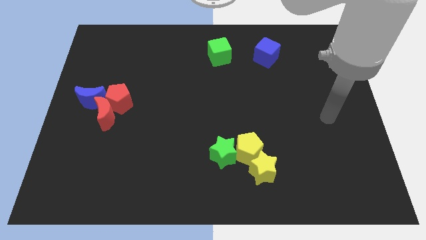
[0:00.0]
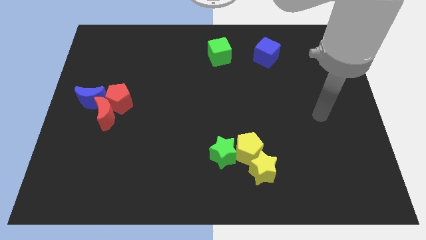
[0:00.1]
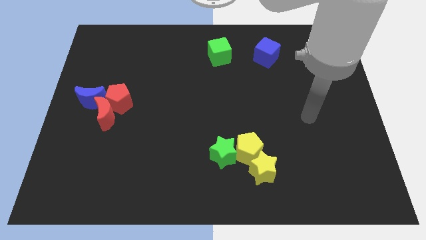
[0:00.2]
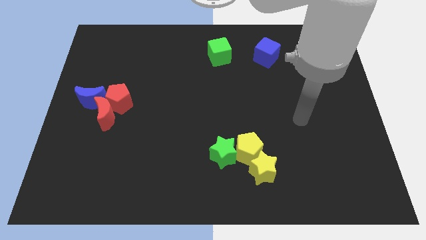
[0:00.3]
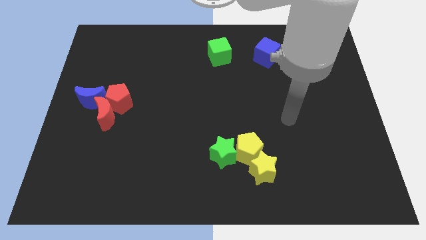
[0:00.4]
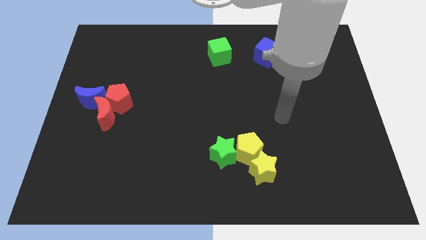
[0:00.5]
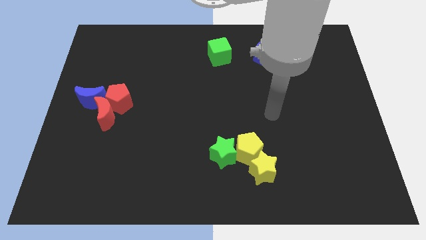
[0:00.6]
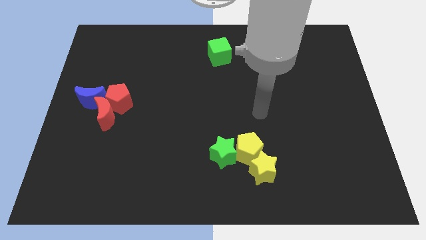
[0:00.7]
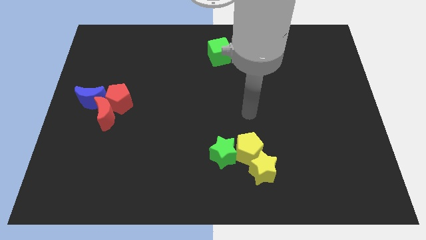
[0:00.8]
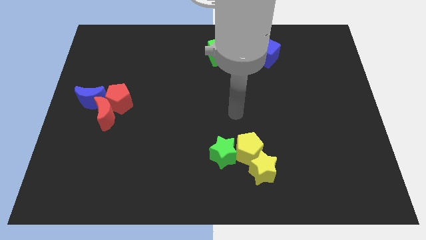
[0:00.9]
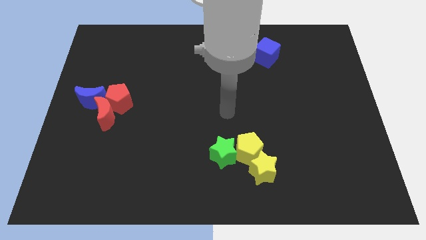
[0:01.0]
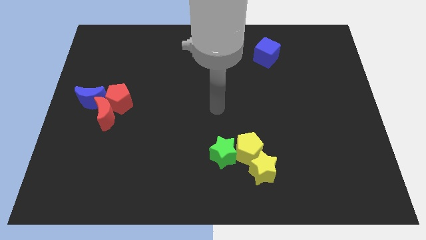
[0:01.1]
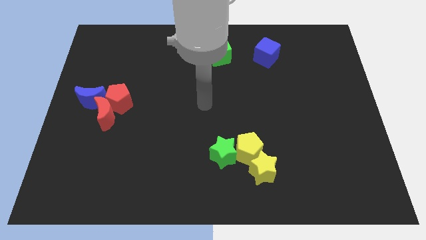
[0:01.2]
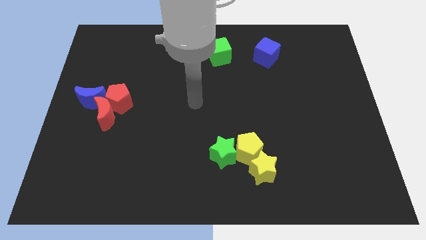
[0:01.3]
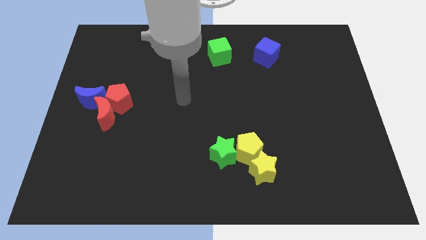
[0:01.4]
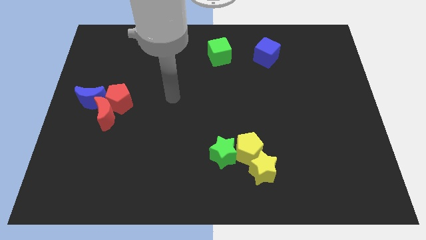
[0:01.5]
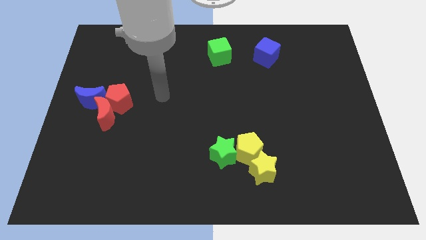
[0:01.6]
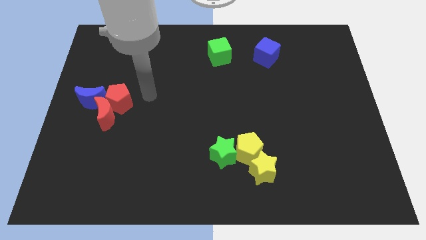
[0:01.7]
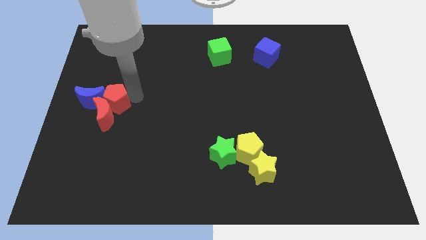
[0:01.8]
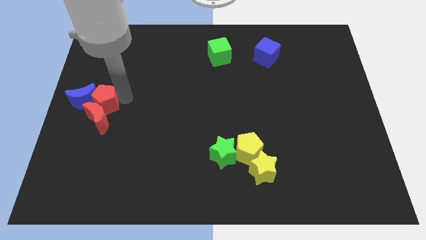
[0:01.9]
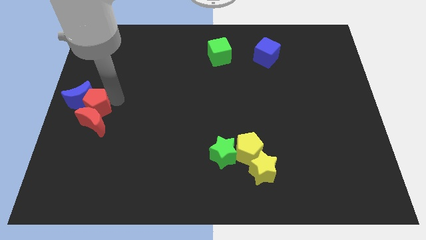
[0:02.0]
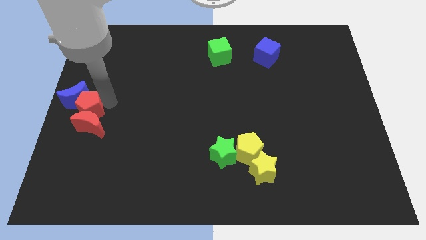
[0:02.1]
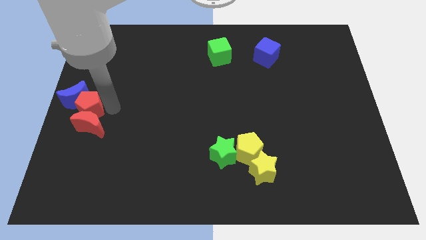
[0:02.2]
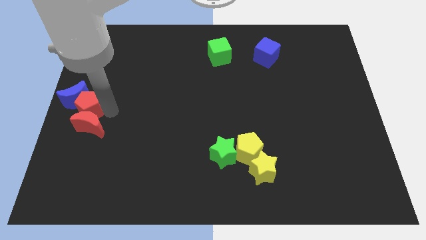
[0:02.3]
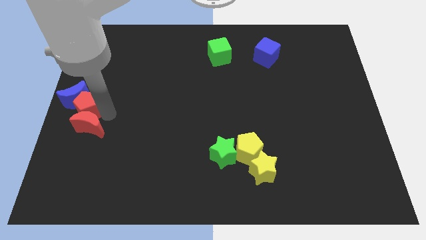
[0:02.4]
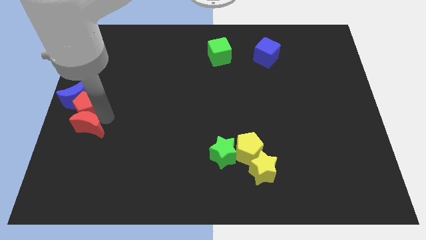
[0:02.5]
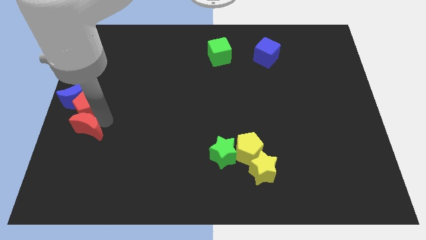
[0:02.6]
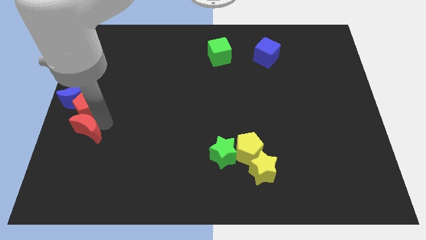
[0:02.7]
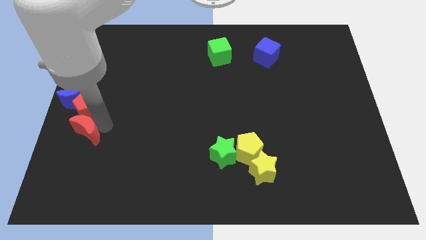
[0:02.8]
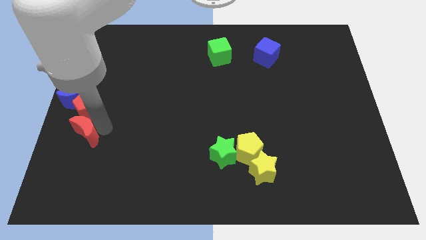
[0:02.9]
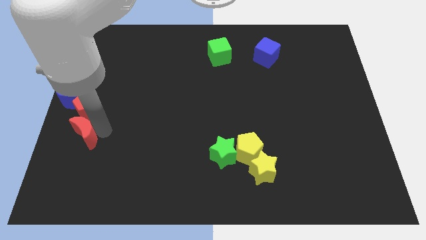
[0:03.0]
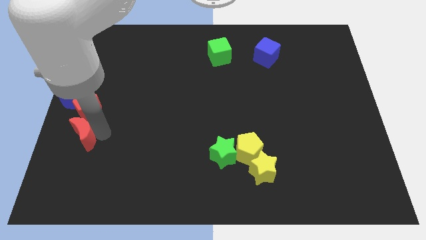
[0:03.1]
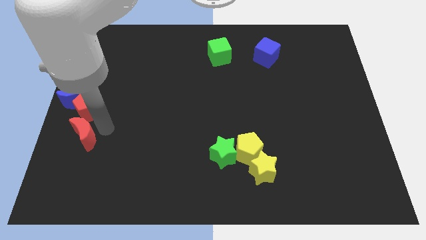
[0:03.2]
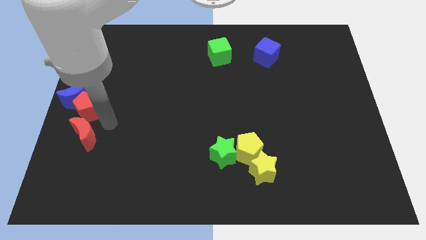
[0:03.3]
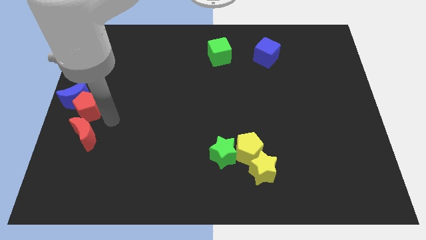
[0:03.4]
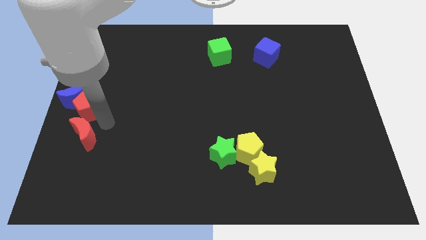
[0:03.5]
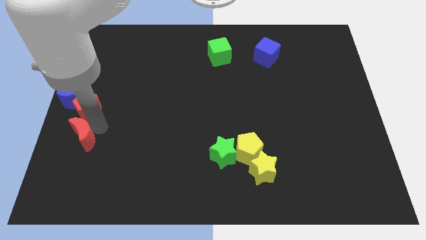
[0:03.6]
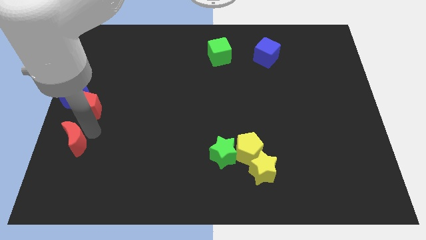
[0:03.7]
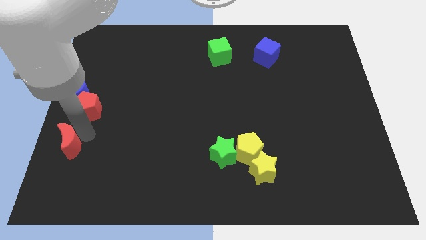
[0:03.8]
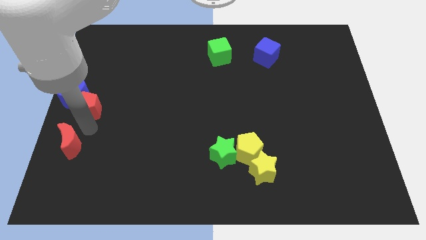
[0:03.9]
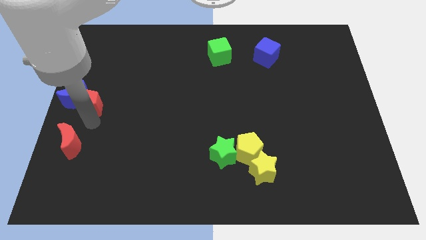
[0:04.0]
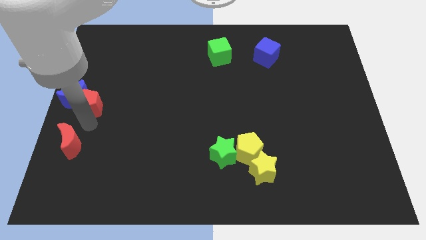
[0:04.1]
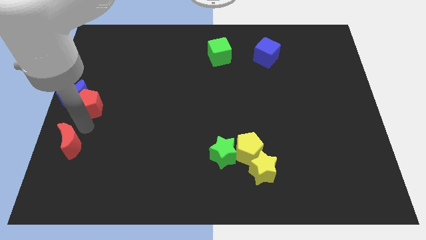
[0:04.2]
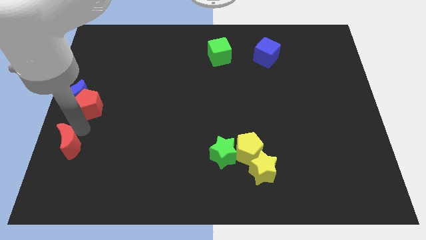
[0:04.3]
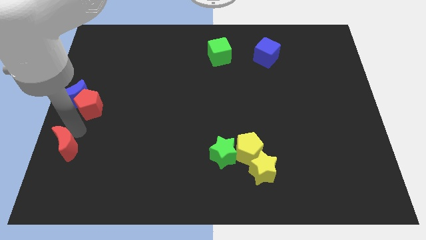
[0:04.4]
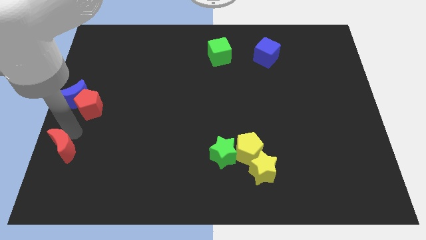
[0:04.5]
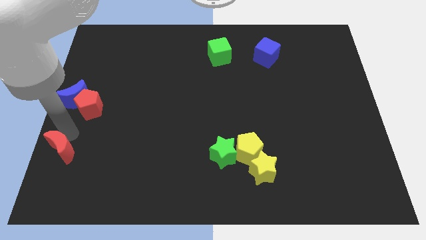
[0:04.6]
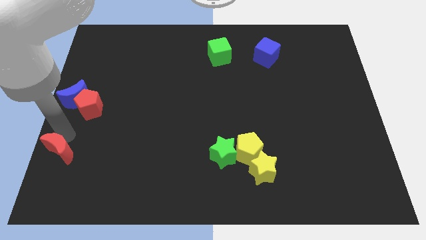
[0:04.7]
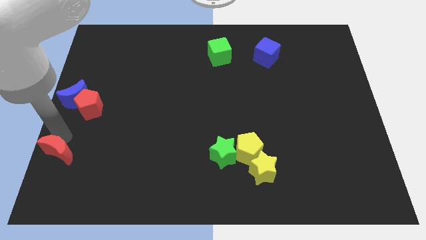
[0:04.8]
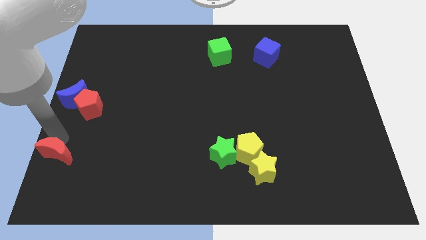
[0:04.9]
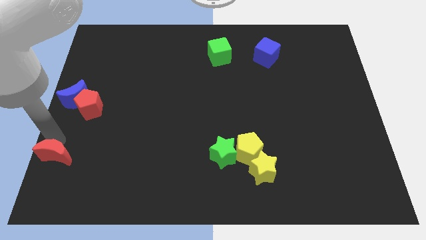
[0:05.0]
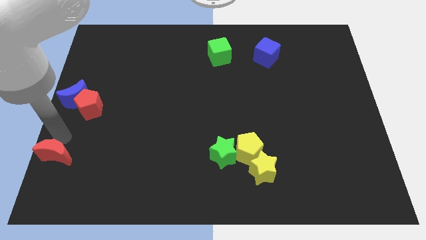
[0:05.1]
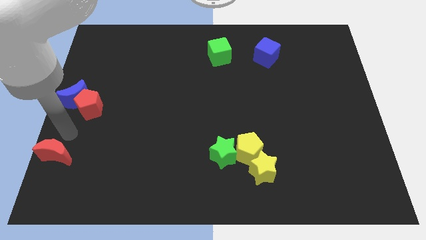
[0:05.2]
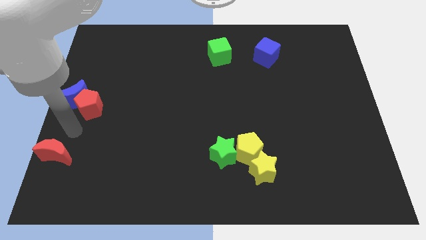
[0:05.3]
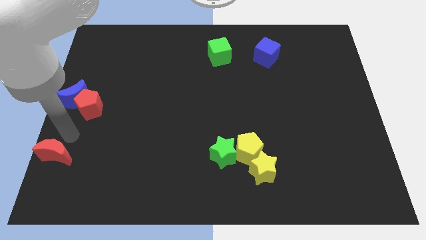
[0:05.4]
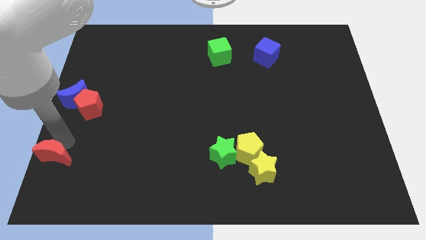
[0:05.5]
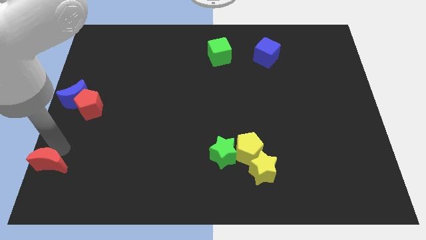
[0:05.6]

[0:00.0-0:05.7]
push the red moon to the lower left corner

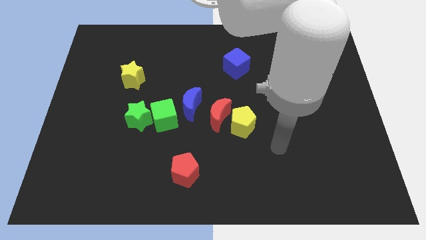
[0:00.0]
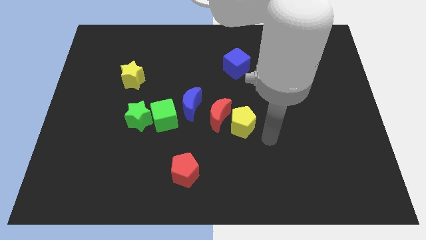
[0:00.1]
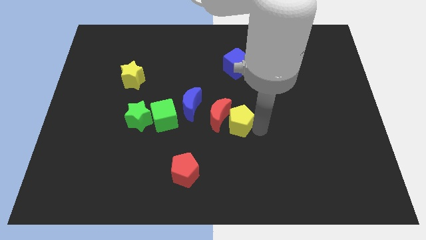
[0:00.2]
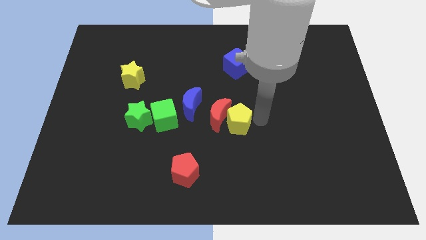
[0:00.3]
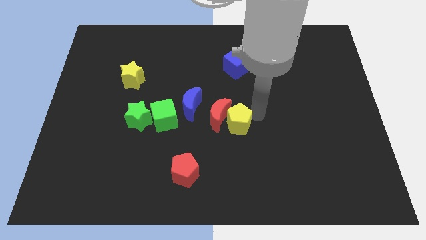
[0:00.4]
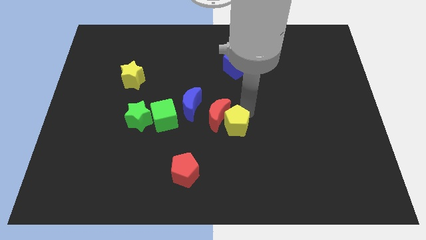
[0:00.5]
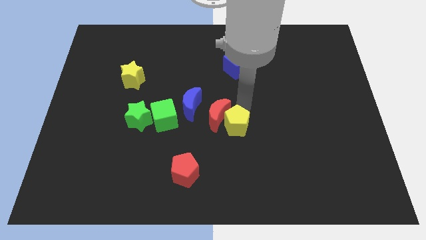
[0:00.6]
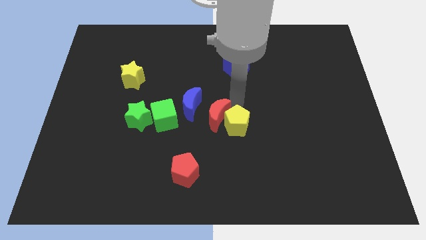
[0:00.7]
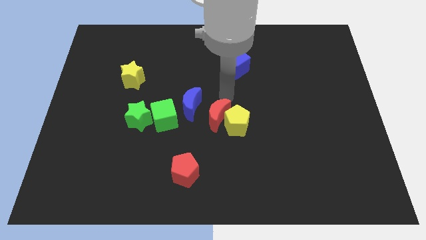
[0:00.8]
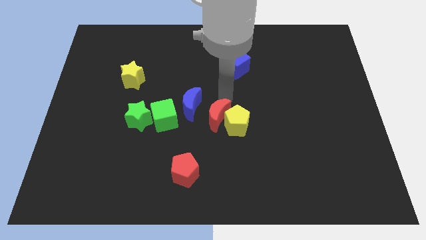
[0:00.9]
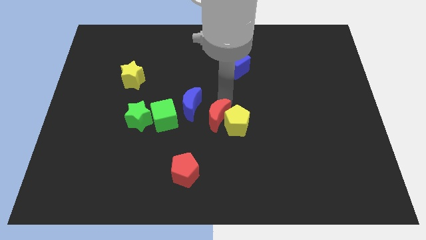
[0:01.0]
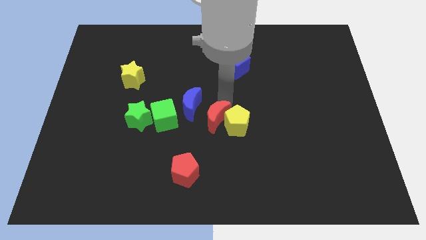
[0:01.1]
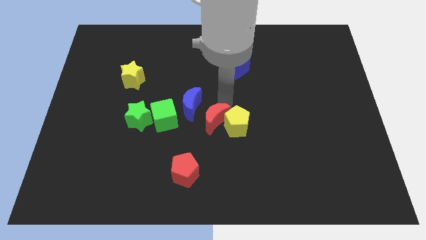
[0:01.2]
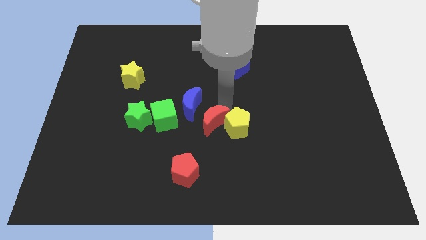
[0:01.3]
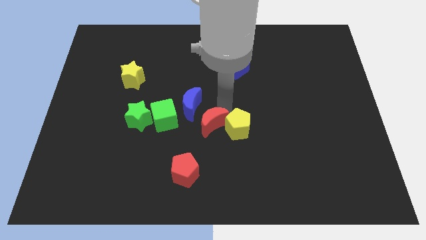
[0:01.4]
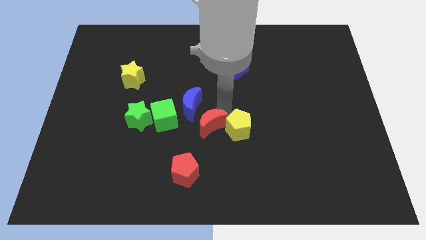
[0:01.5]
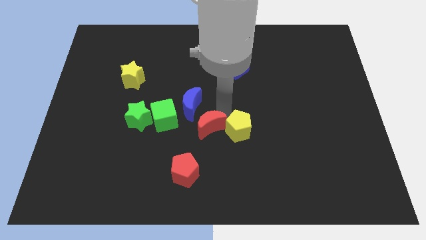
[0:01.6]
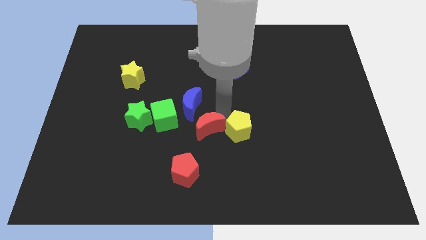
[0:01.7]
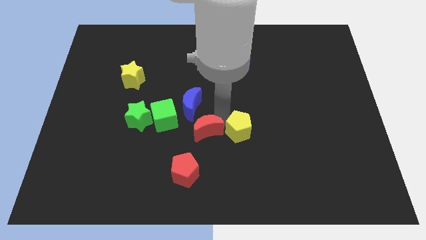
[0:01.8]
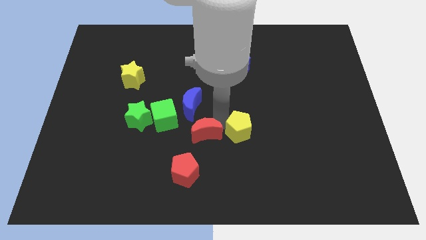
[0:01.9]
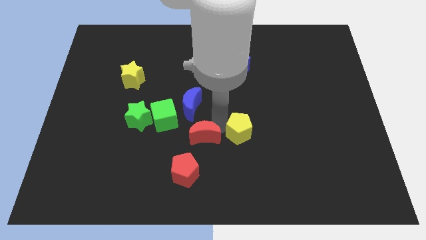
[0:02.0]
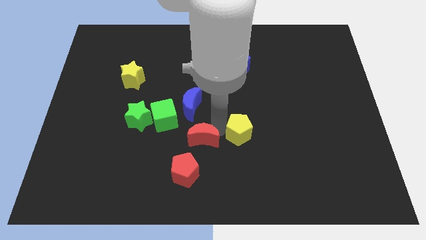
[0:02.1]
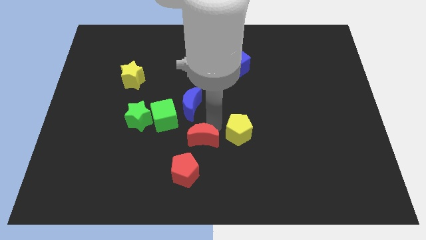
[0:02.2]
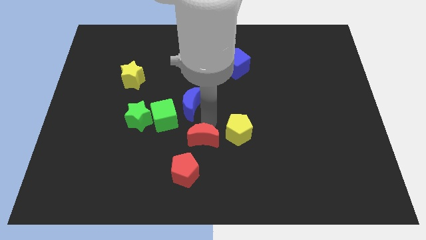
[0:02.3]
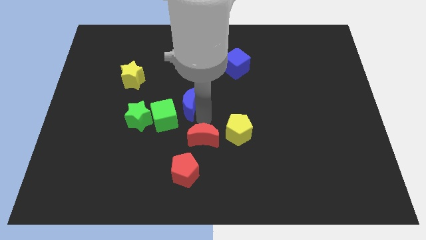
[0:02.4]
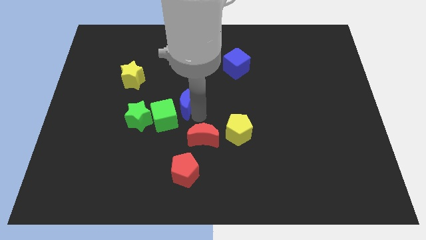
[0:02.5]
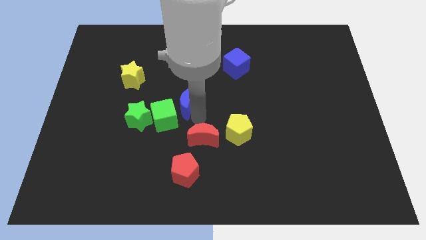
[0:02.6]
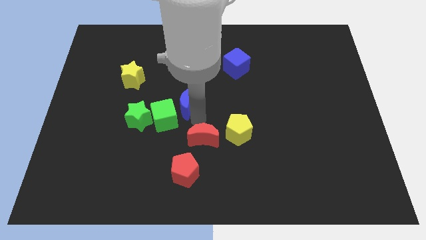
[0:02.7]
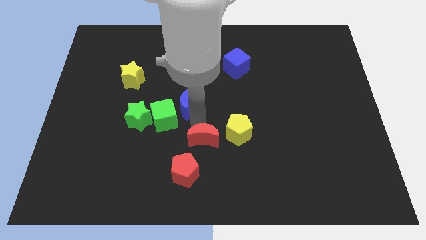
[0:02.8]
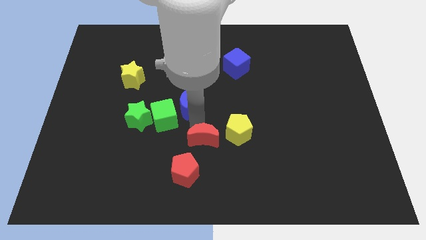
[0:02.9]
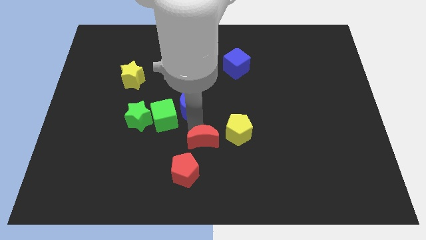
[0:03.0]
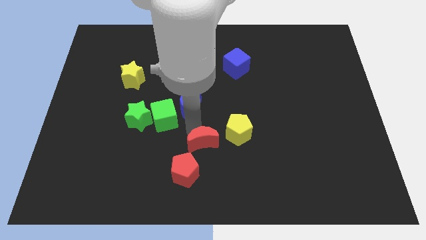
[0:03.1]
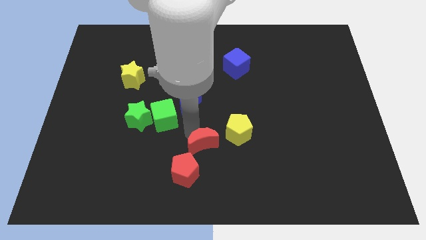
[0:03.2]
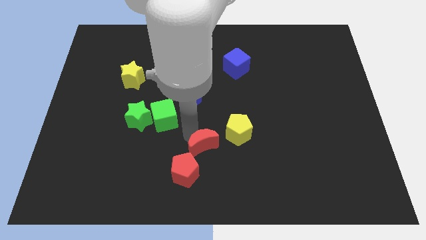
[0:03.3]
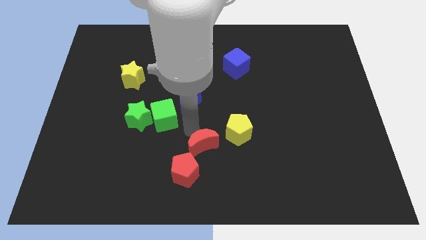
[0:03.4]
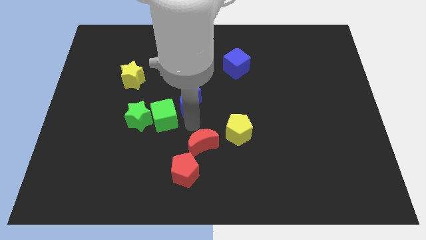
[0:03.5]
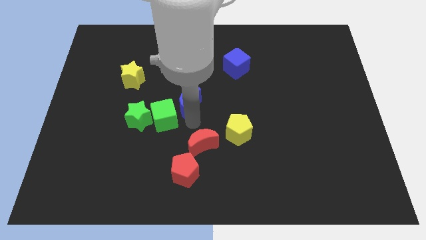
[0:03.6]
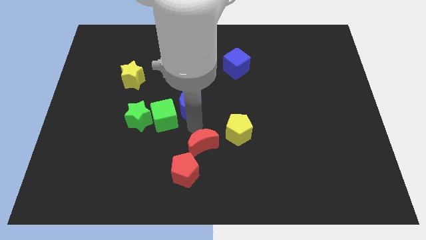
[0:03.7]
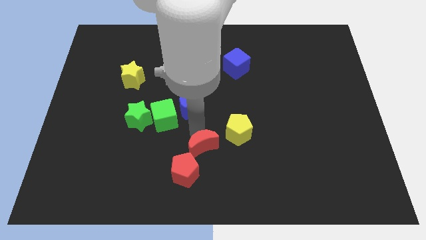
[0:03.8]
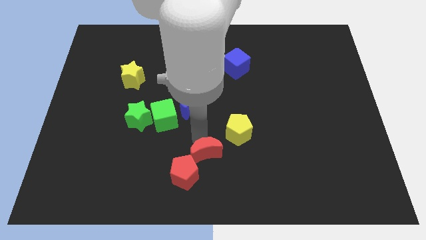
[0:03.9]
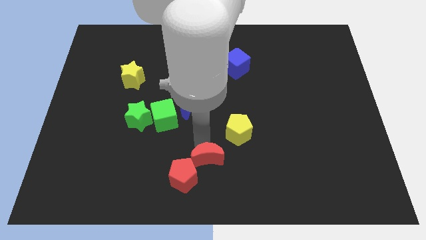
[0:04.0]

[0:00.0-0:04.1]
slide the red moon to the bottom
